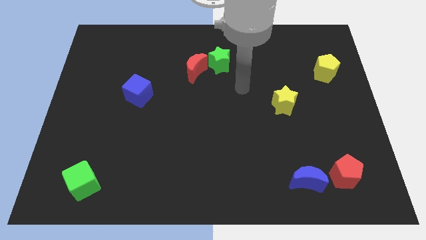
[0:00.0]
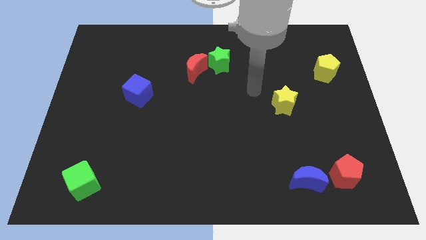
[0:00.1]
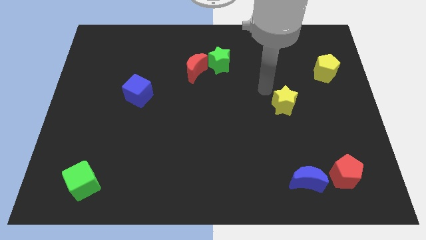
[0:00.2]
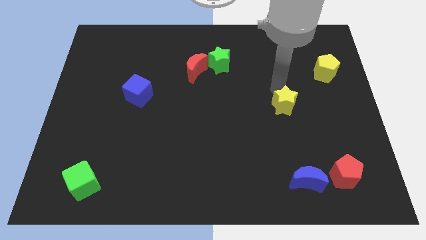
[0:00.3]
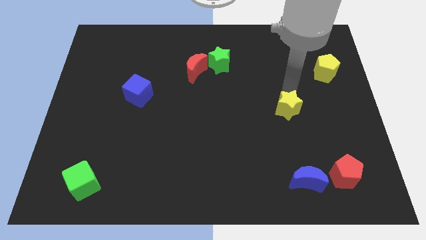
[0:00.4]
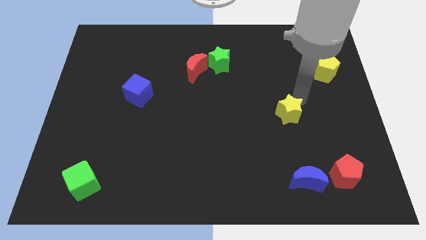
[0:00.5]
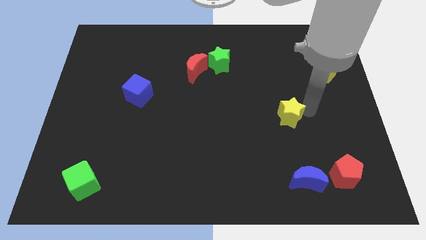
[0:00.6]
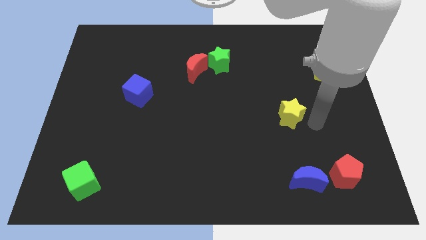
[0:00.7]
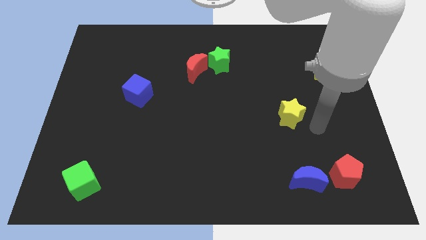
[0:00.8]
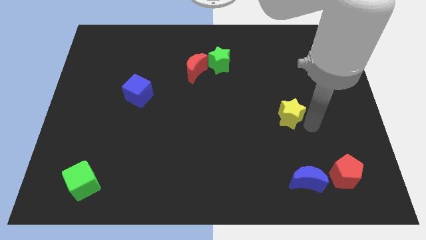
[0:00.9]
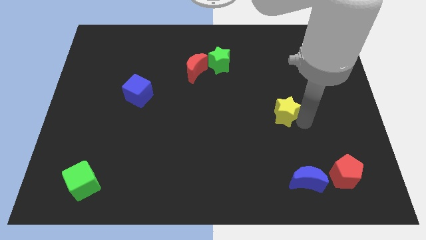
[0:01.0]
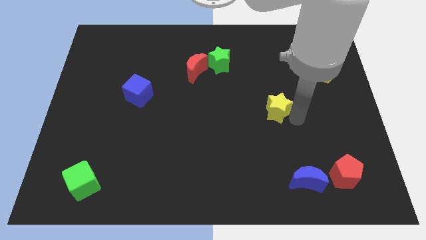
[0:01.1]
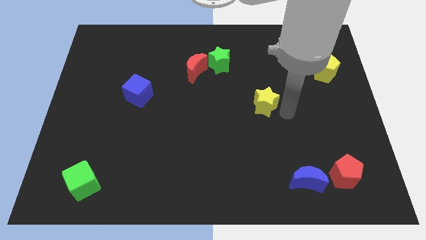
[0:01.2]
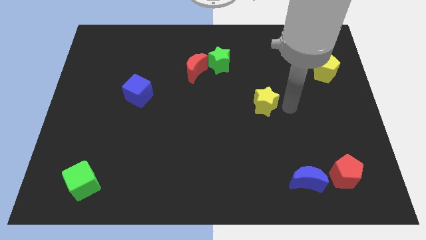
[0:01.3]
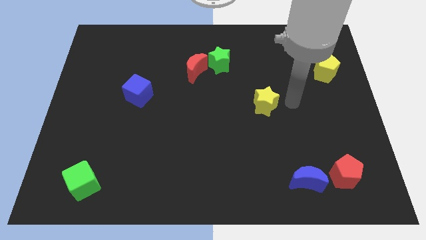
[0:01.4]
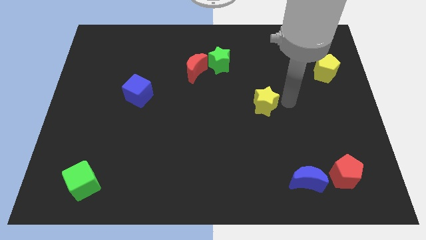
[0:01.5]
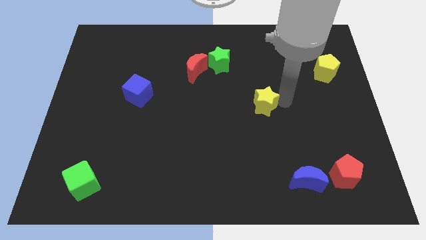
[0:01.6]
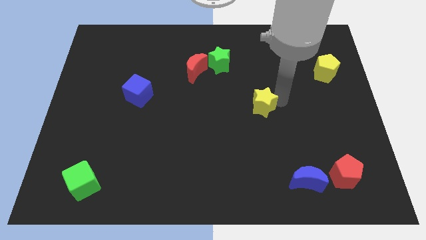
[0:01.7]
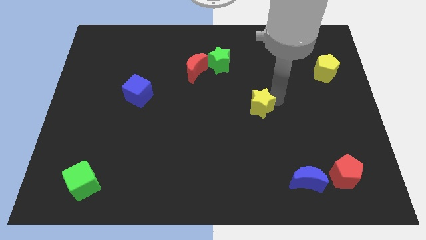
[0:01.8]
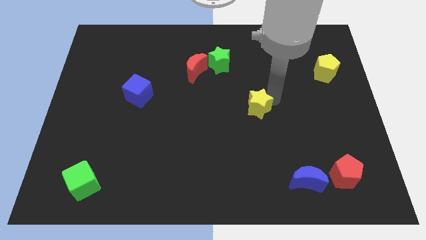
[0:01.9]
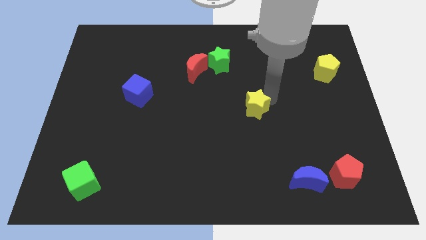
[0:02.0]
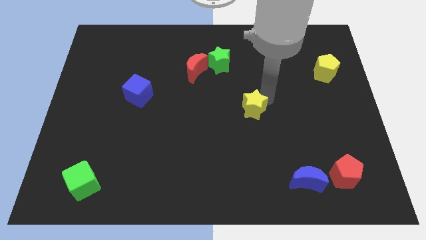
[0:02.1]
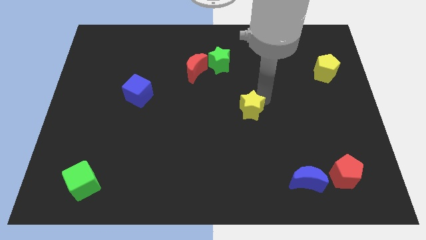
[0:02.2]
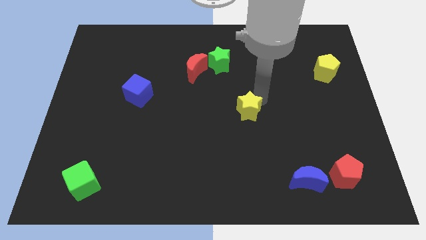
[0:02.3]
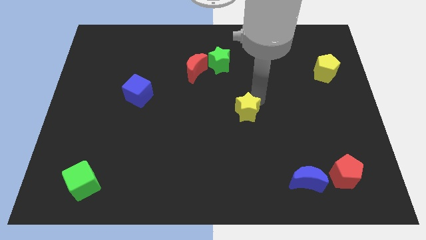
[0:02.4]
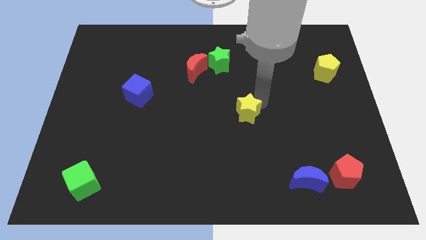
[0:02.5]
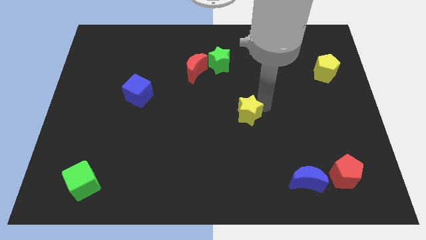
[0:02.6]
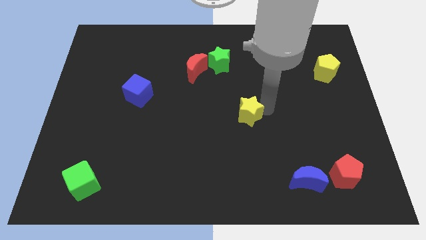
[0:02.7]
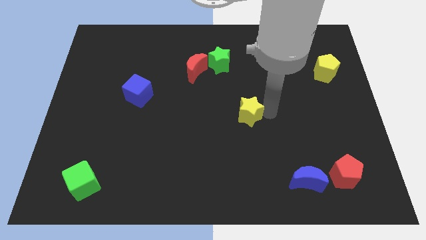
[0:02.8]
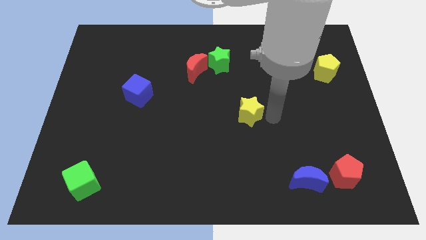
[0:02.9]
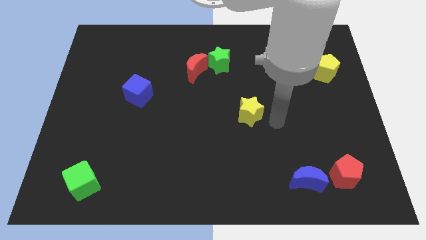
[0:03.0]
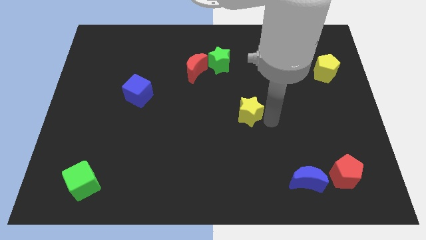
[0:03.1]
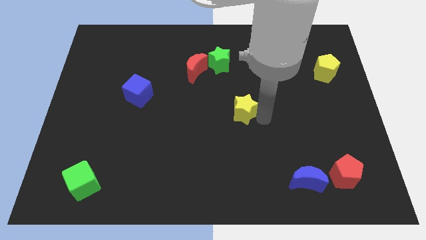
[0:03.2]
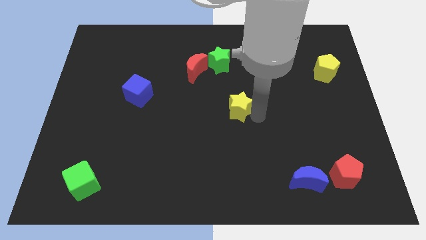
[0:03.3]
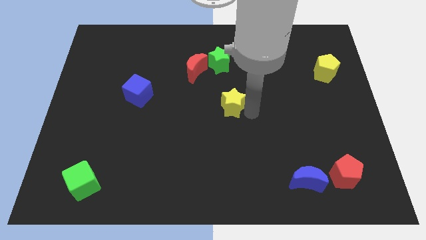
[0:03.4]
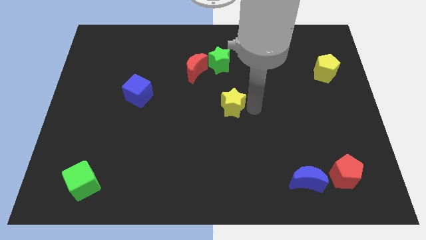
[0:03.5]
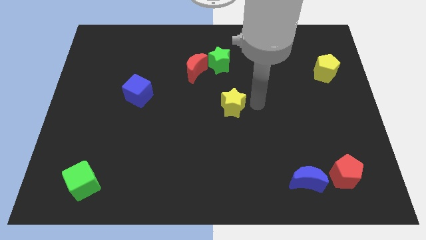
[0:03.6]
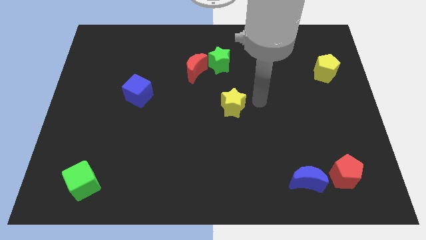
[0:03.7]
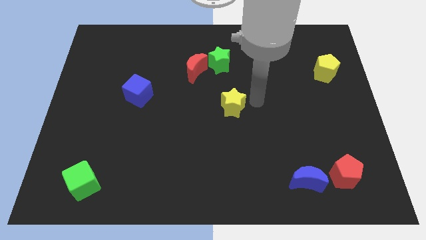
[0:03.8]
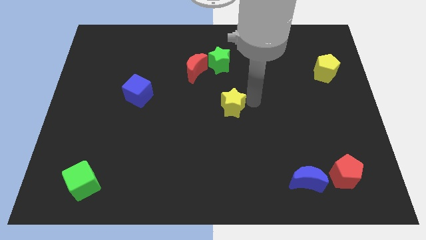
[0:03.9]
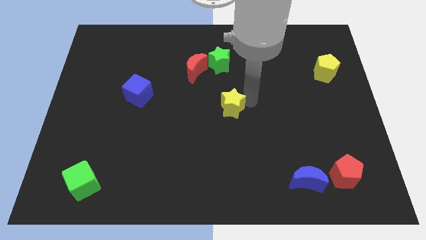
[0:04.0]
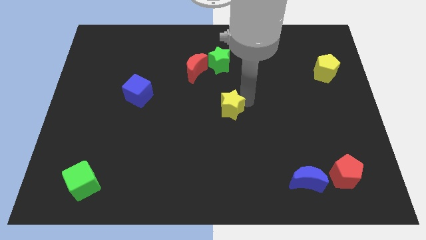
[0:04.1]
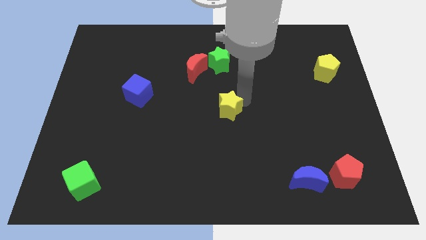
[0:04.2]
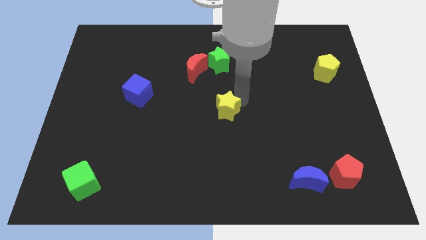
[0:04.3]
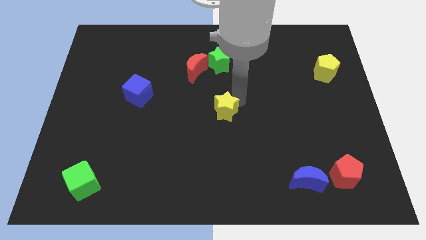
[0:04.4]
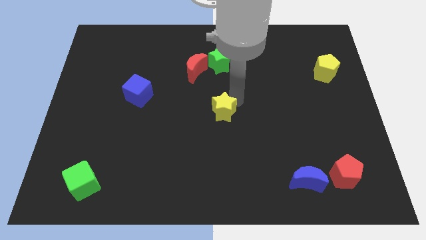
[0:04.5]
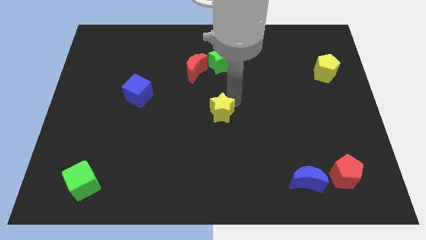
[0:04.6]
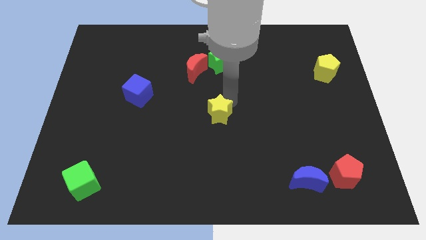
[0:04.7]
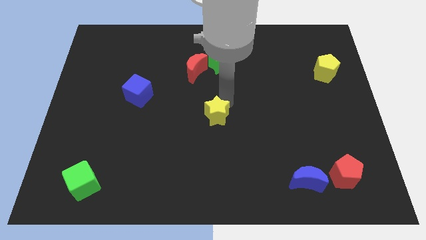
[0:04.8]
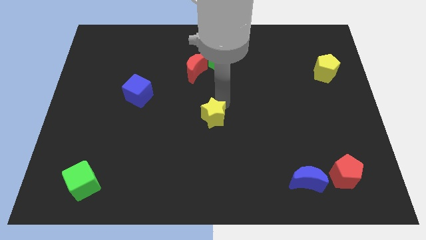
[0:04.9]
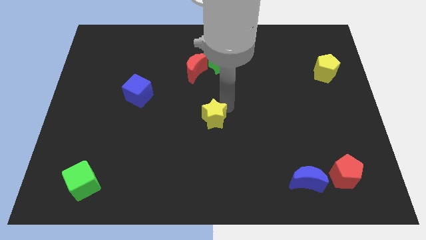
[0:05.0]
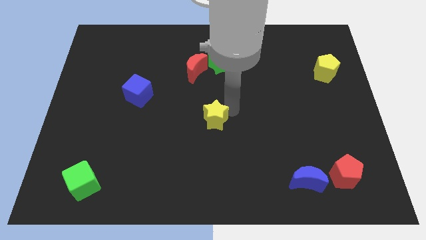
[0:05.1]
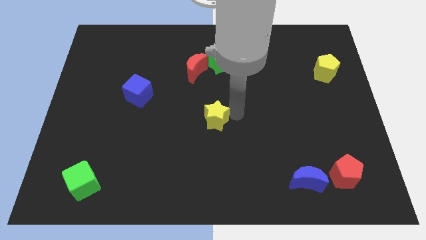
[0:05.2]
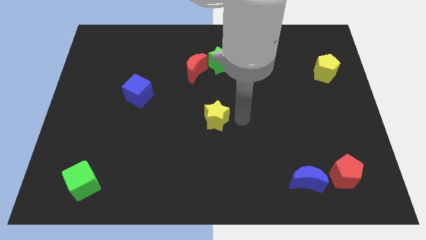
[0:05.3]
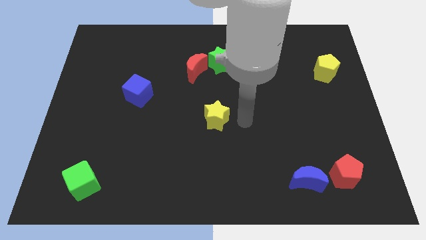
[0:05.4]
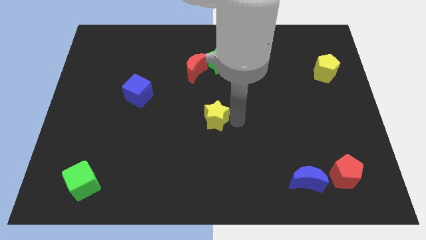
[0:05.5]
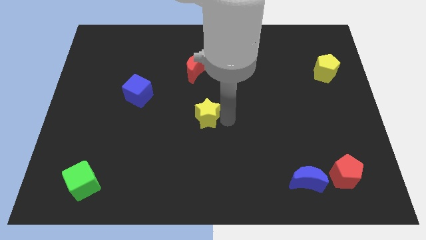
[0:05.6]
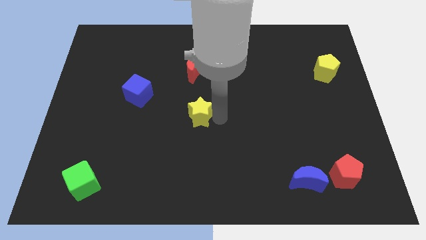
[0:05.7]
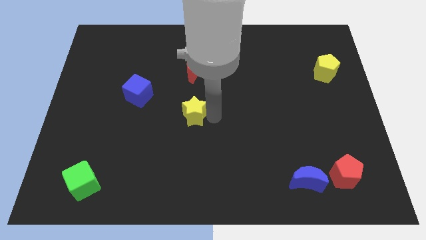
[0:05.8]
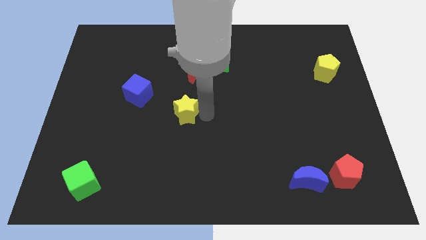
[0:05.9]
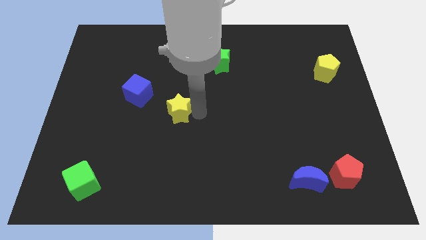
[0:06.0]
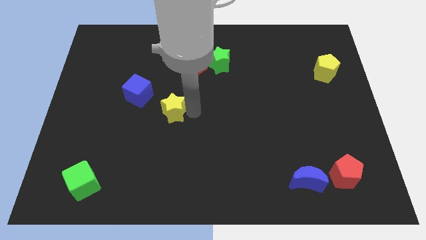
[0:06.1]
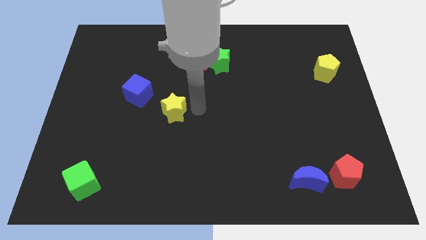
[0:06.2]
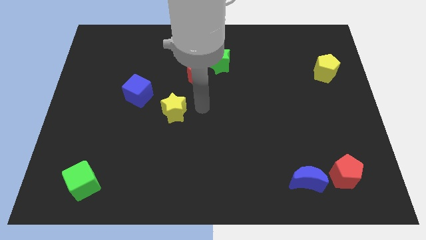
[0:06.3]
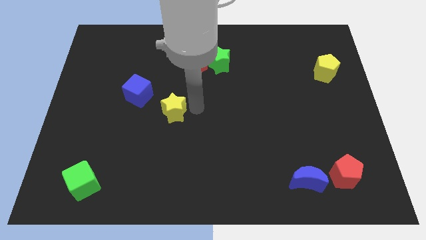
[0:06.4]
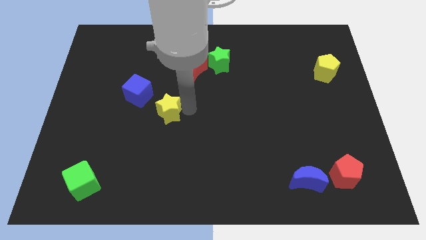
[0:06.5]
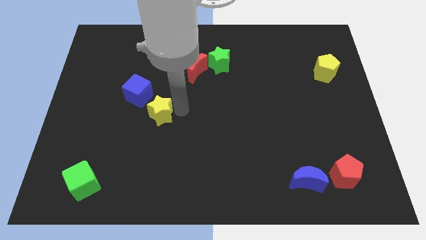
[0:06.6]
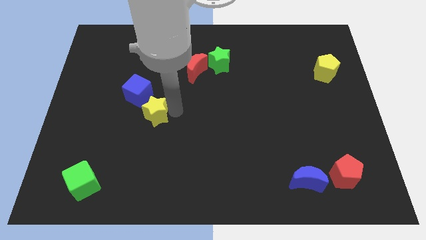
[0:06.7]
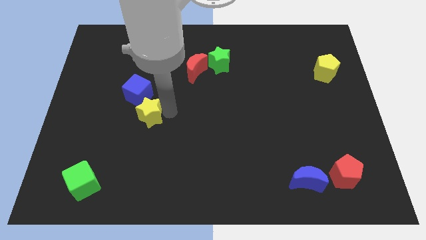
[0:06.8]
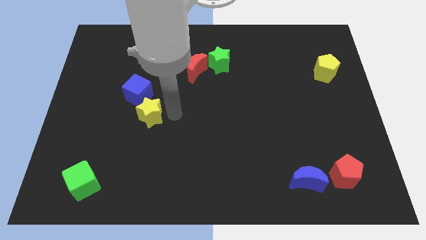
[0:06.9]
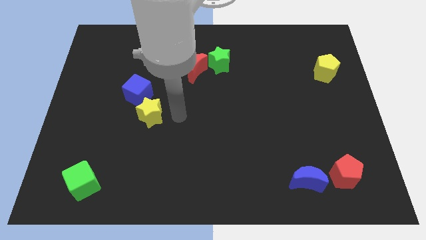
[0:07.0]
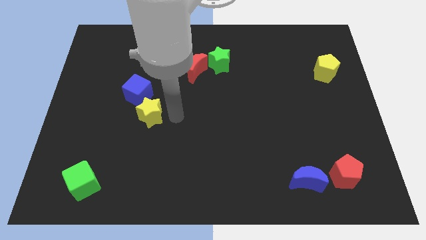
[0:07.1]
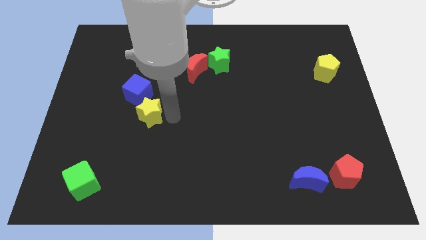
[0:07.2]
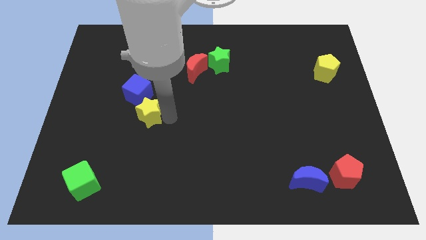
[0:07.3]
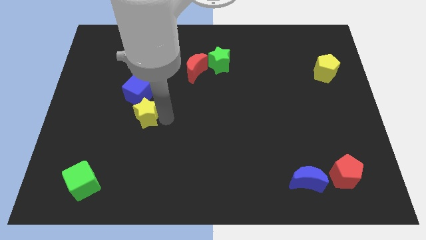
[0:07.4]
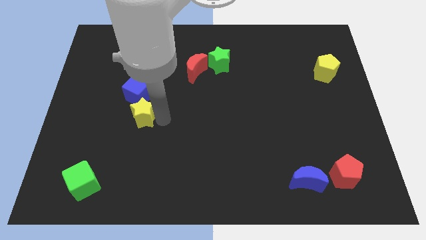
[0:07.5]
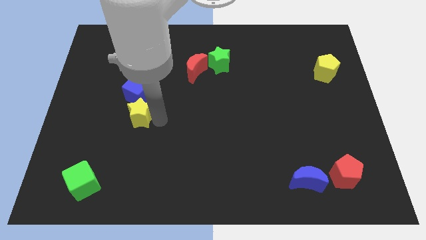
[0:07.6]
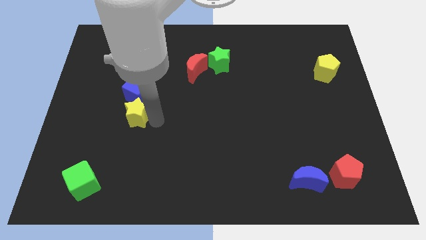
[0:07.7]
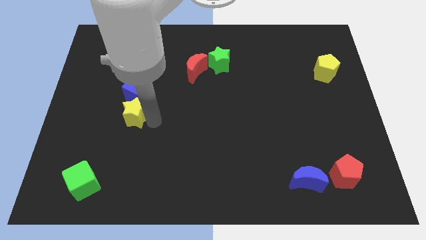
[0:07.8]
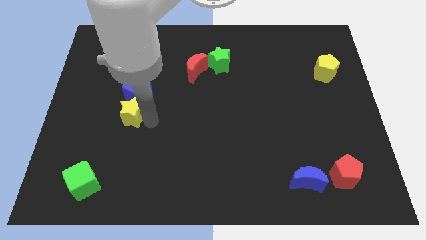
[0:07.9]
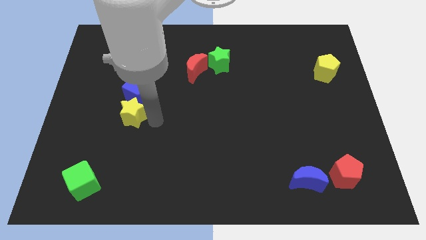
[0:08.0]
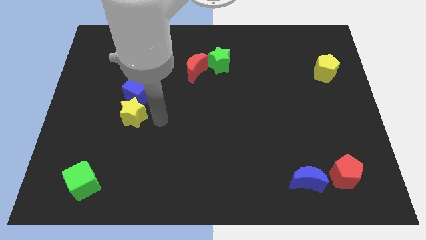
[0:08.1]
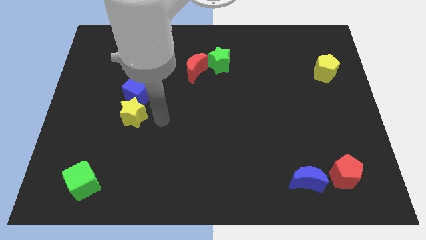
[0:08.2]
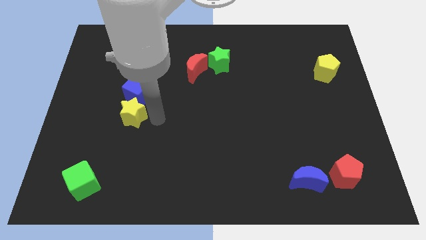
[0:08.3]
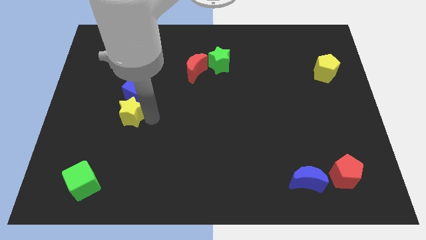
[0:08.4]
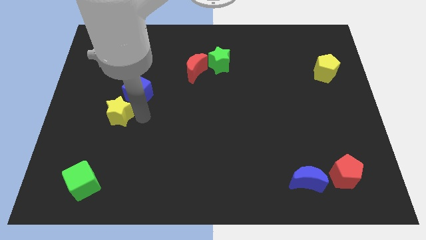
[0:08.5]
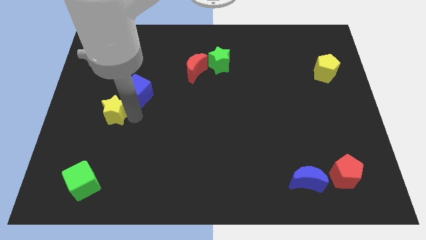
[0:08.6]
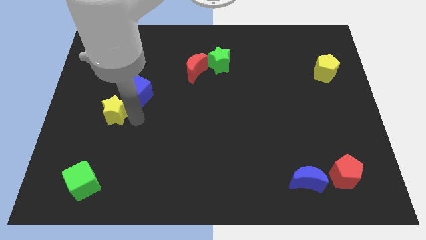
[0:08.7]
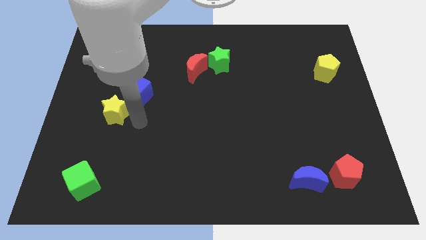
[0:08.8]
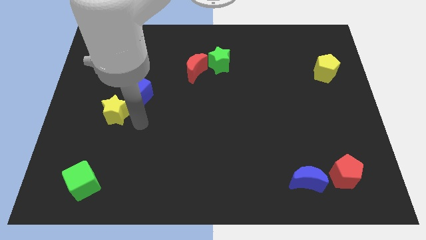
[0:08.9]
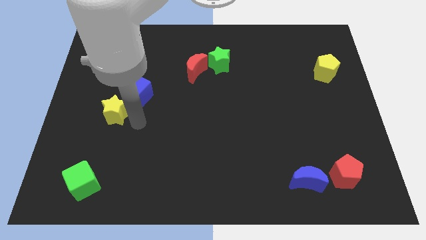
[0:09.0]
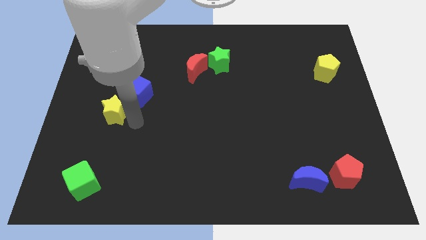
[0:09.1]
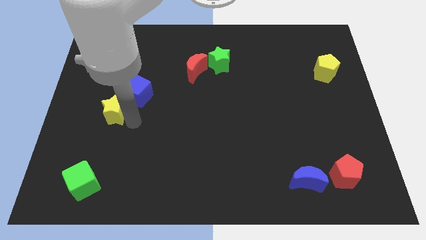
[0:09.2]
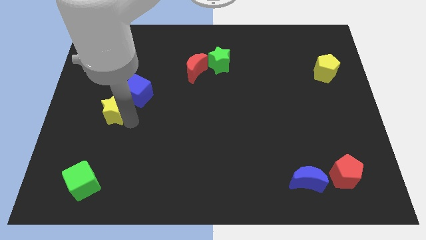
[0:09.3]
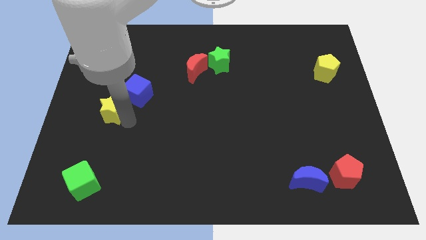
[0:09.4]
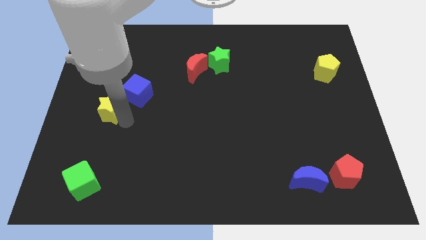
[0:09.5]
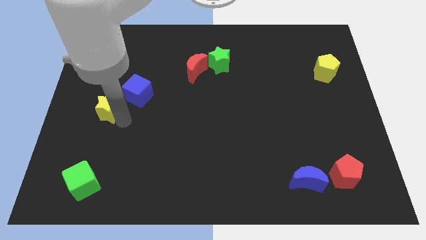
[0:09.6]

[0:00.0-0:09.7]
put the yellow star to the left of the blue cube
